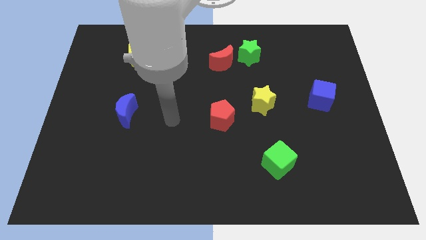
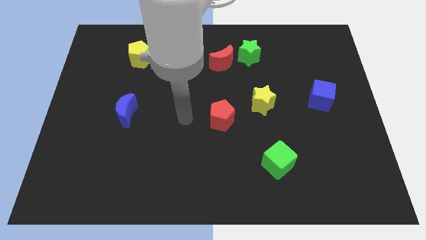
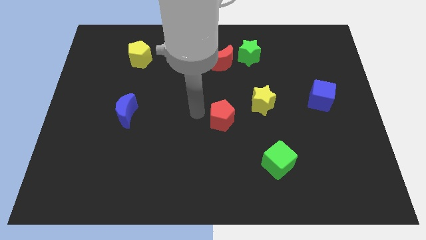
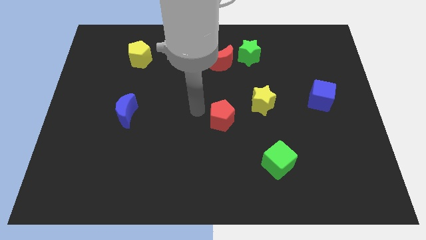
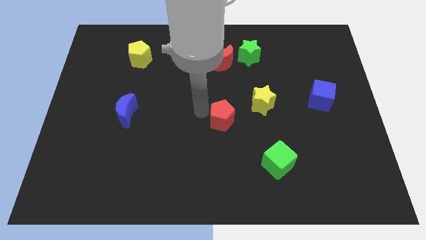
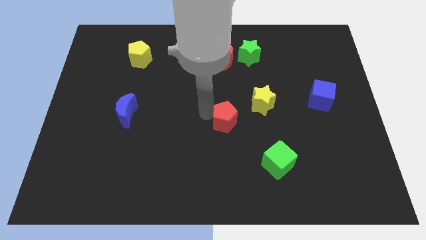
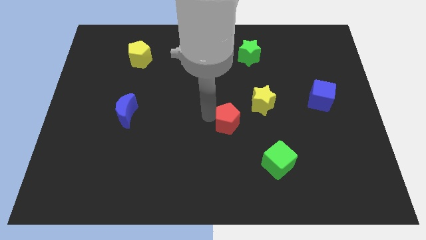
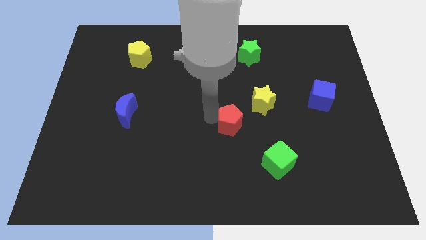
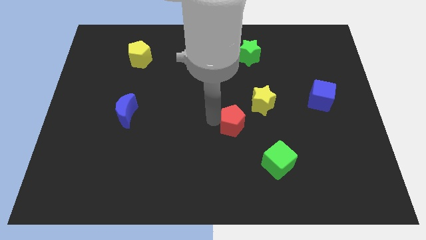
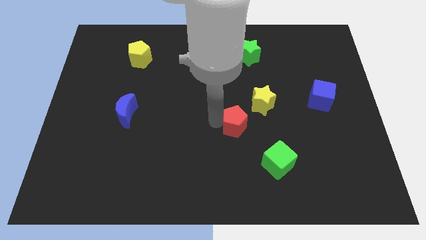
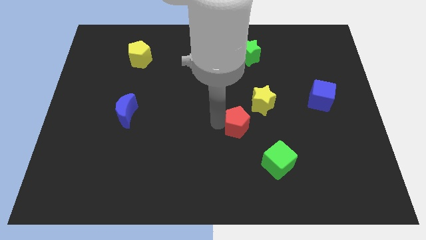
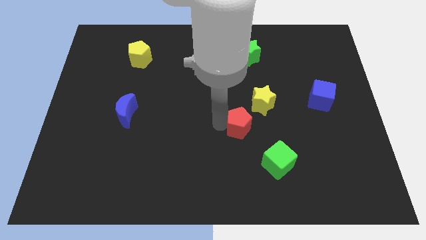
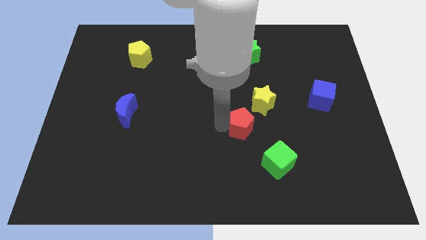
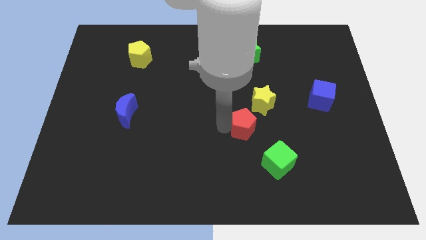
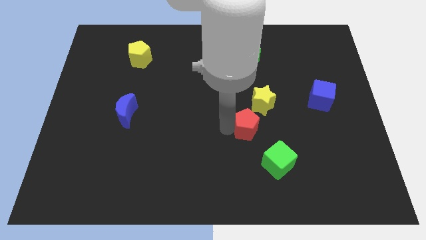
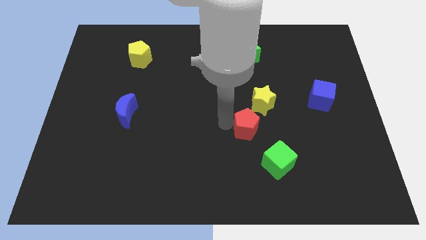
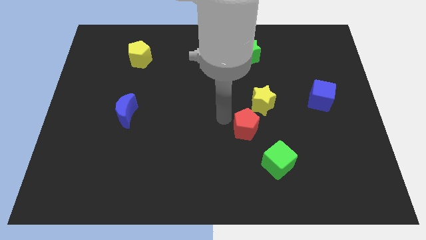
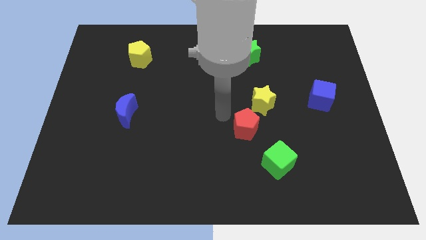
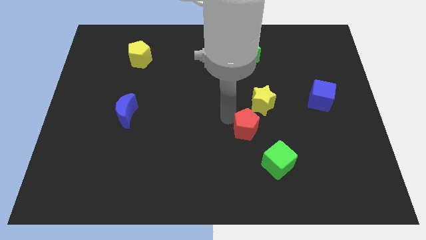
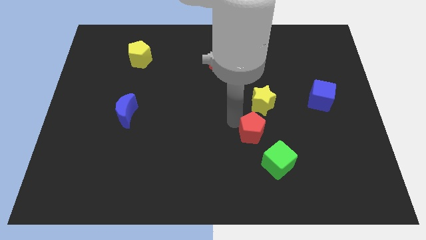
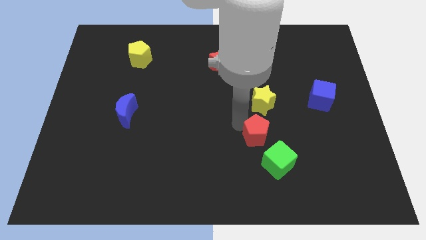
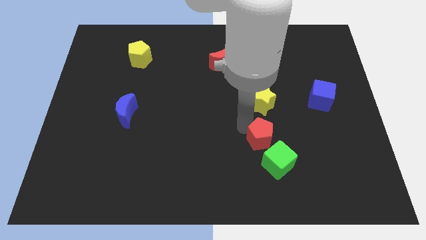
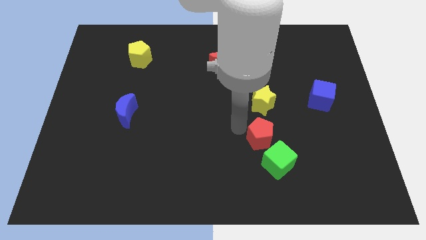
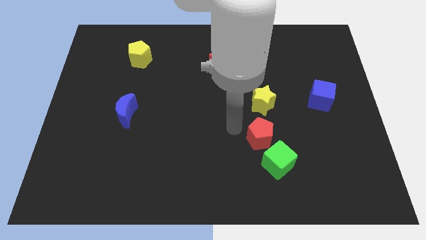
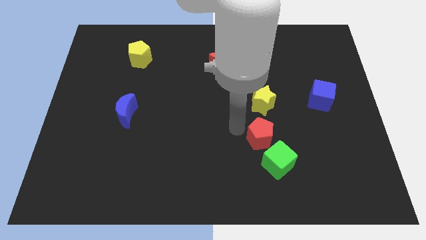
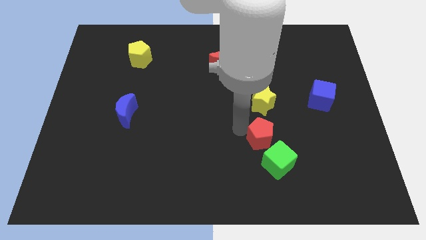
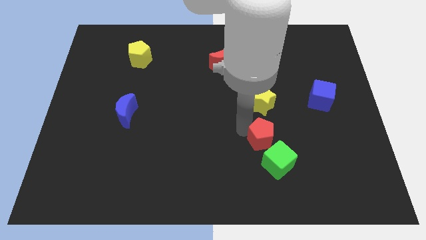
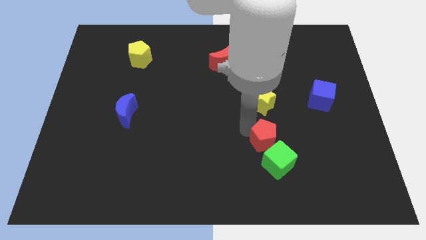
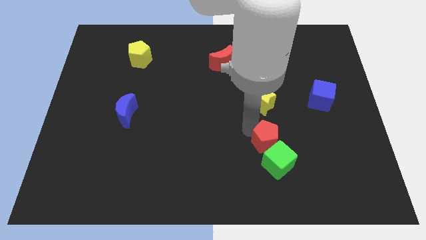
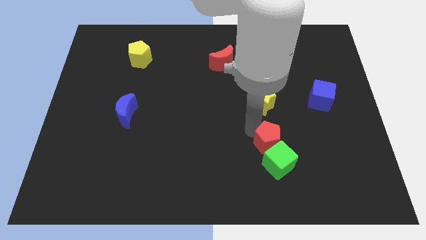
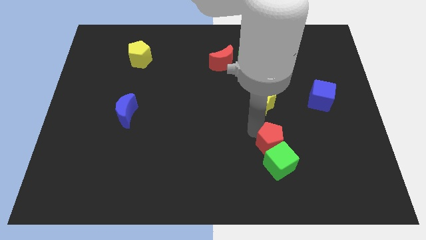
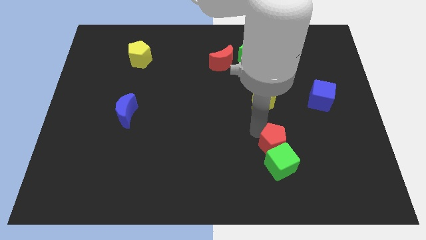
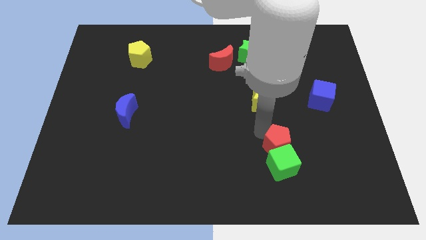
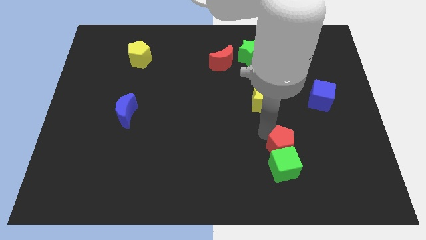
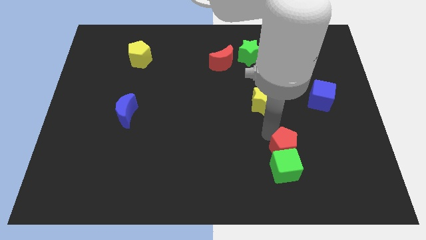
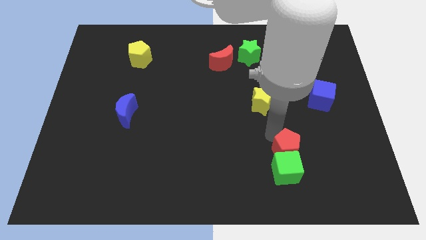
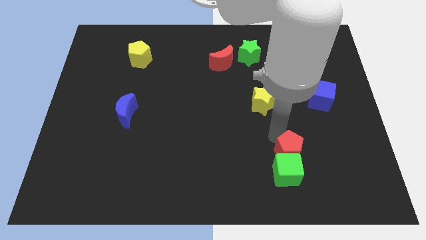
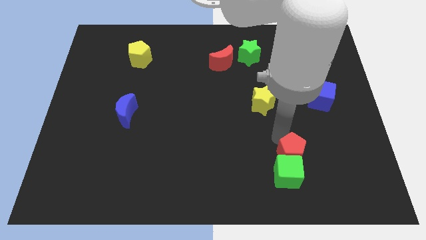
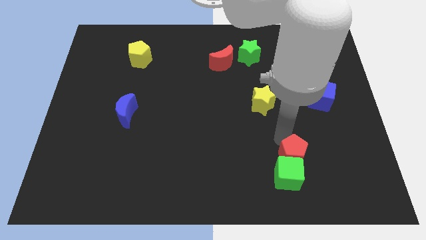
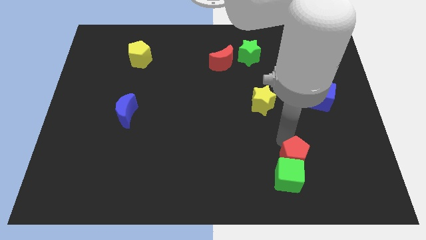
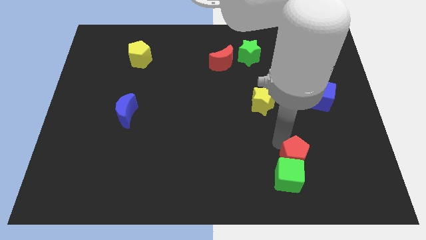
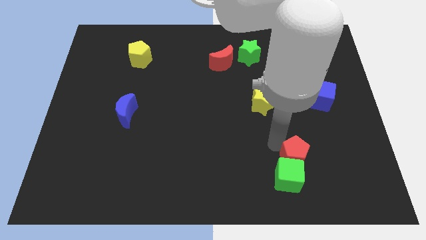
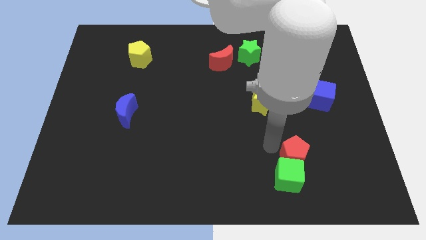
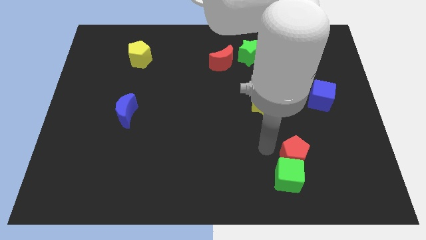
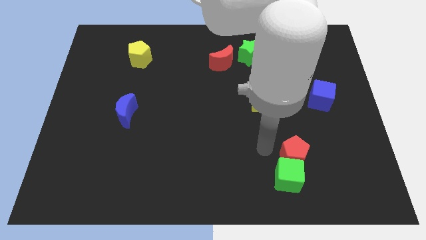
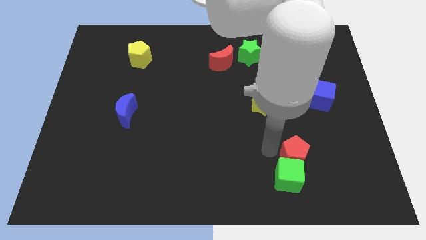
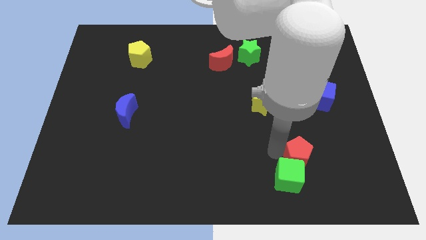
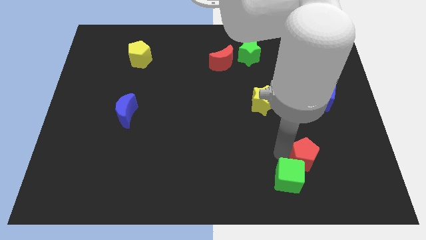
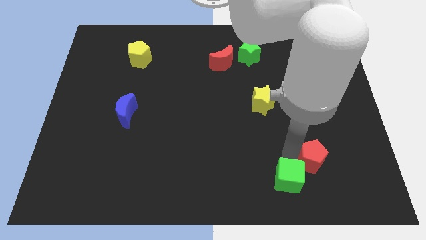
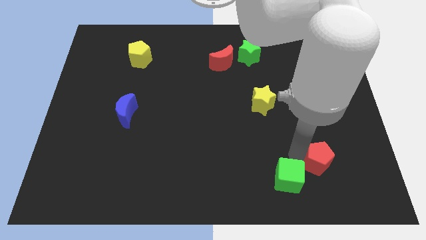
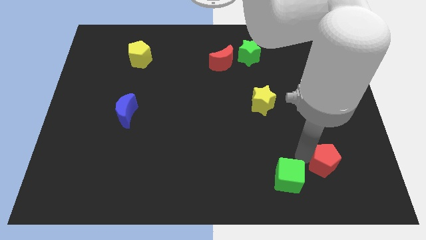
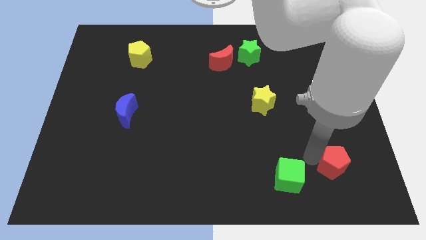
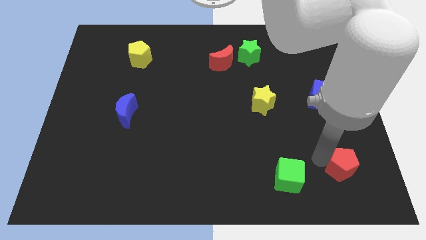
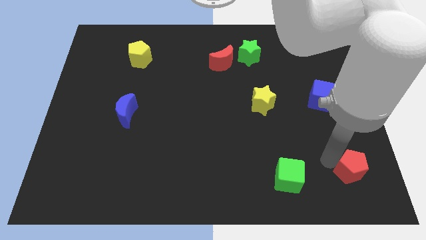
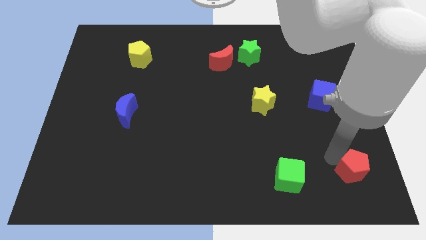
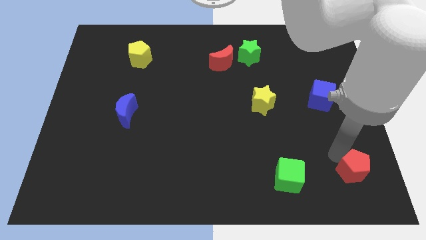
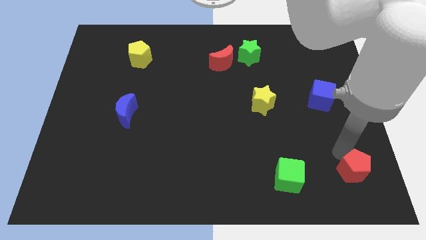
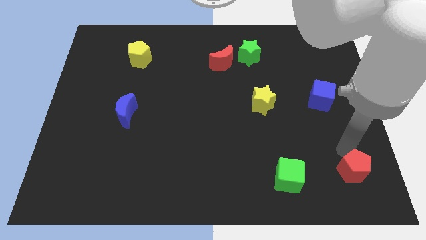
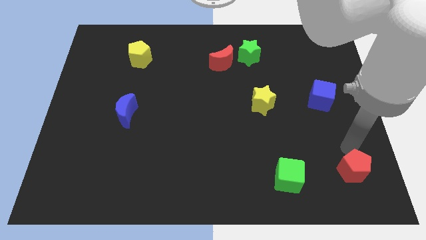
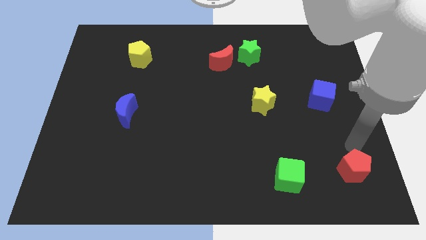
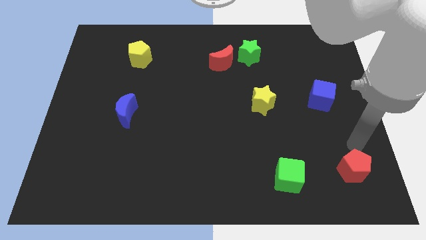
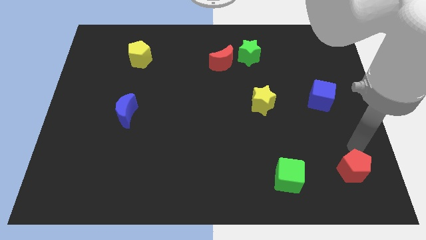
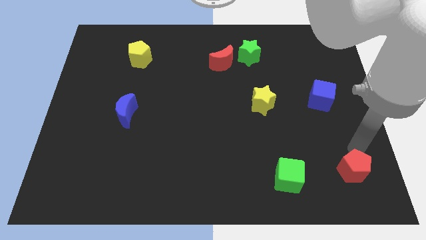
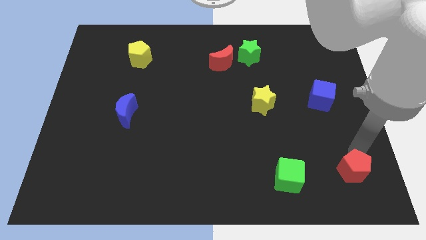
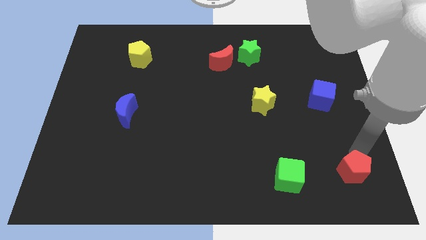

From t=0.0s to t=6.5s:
slide the red pentagon to the lower right corner
